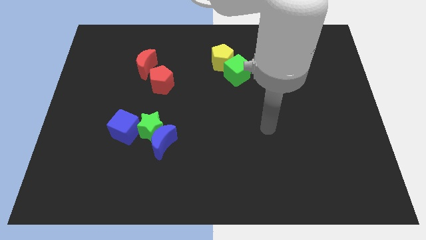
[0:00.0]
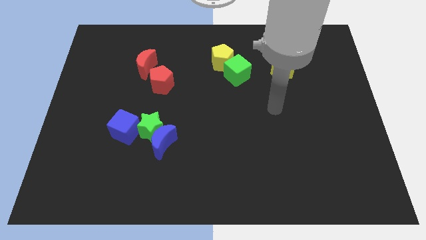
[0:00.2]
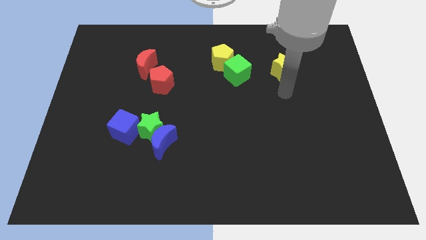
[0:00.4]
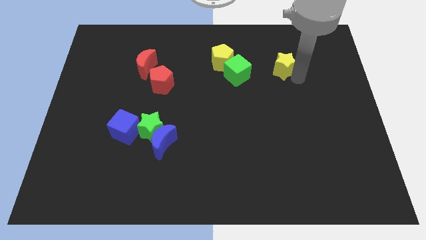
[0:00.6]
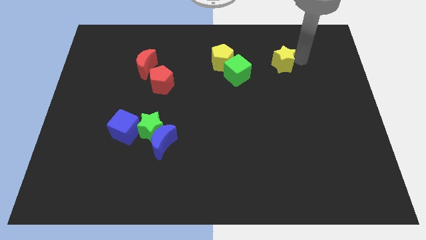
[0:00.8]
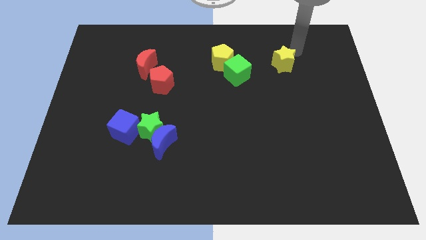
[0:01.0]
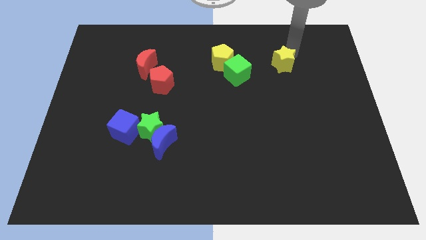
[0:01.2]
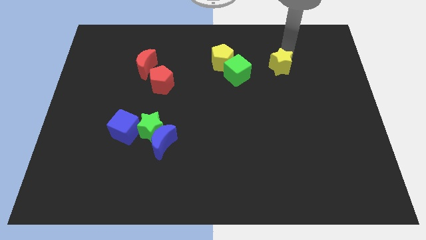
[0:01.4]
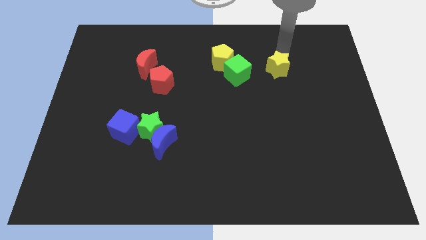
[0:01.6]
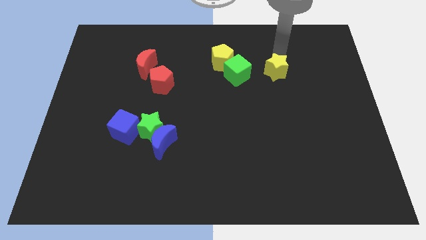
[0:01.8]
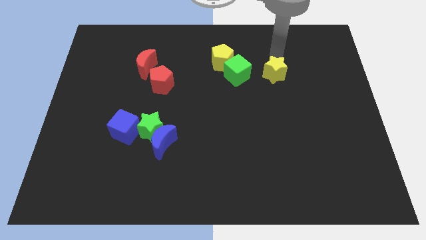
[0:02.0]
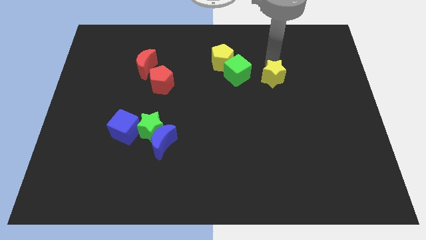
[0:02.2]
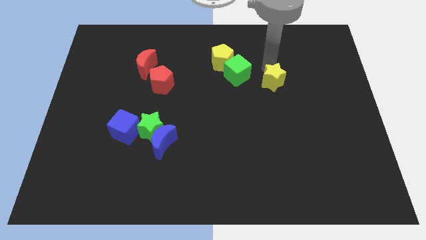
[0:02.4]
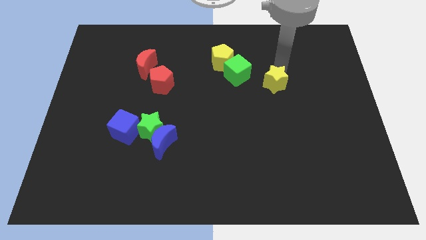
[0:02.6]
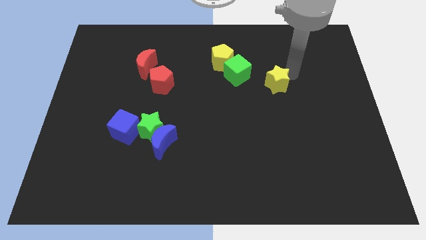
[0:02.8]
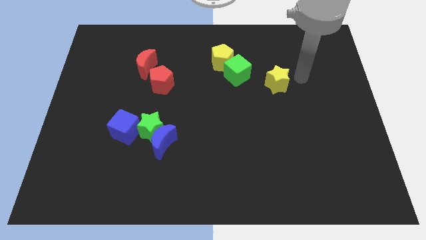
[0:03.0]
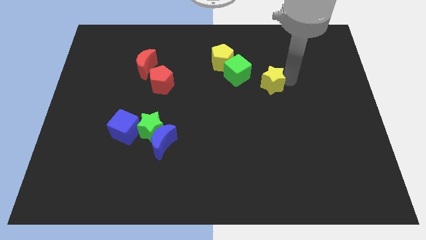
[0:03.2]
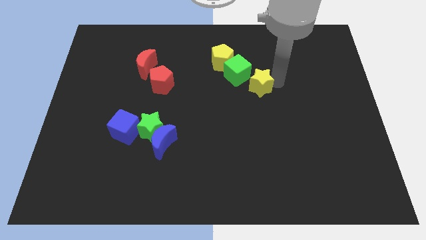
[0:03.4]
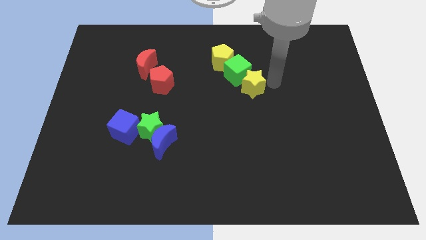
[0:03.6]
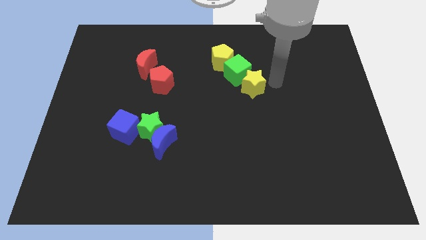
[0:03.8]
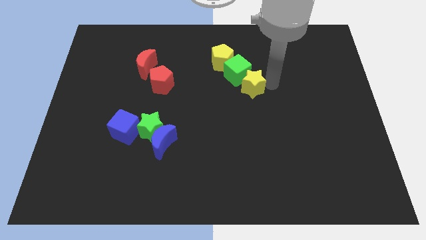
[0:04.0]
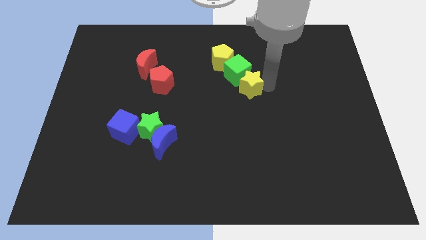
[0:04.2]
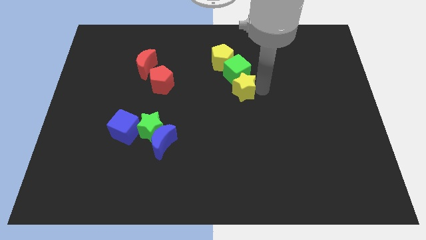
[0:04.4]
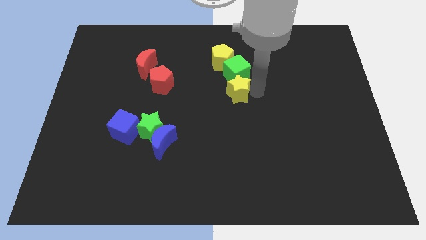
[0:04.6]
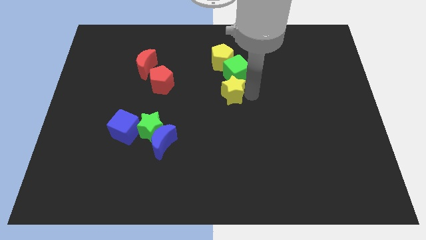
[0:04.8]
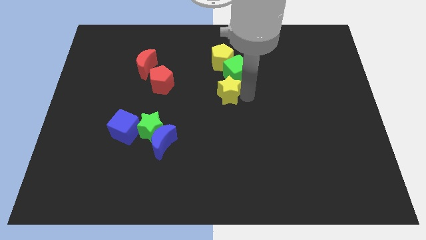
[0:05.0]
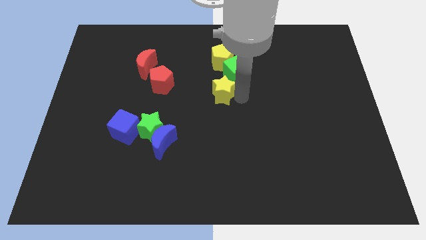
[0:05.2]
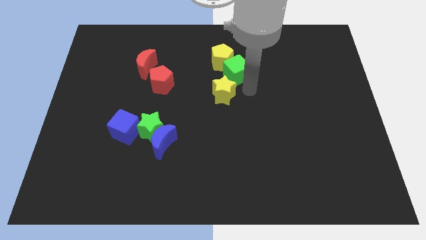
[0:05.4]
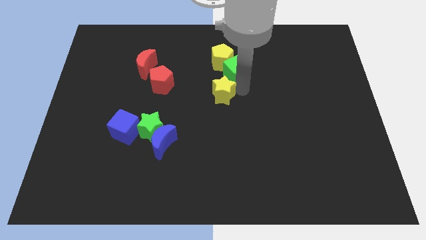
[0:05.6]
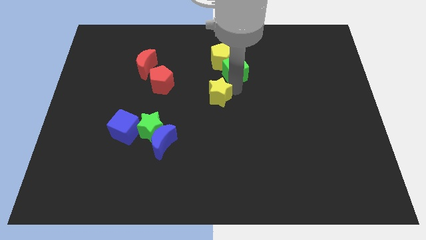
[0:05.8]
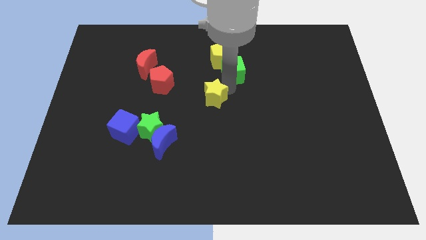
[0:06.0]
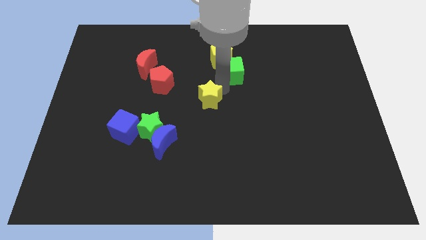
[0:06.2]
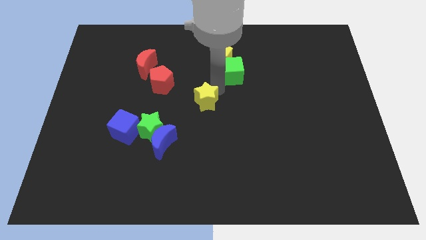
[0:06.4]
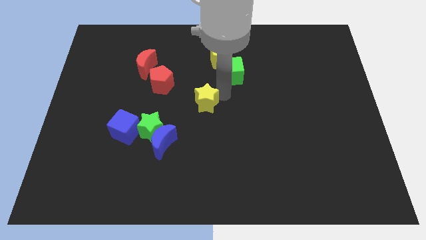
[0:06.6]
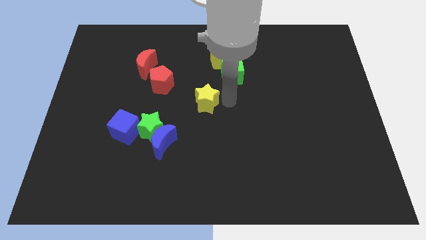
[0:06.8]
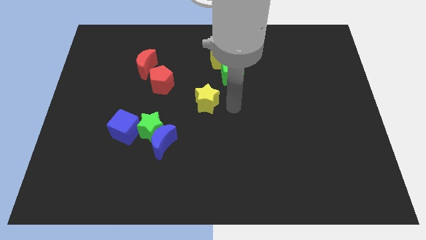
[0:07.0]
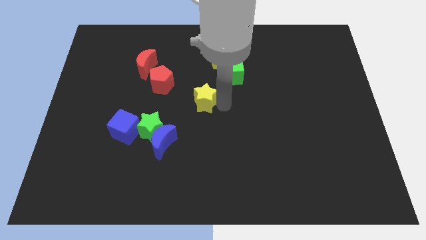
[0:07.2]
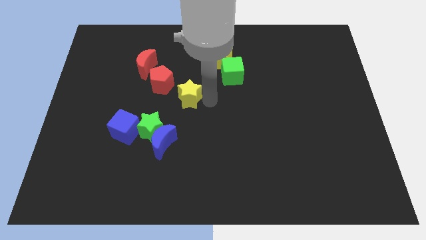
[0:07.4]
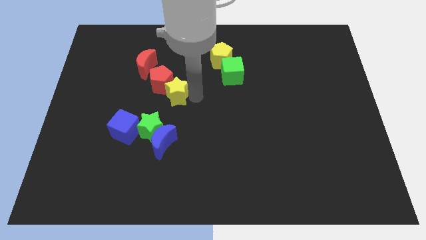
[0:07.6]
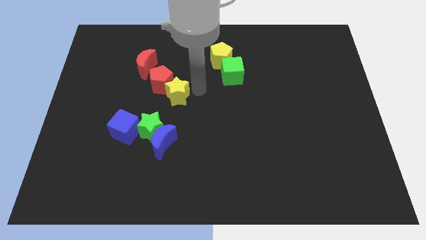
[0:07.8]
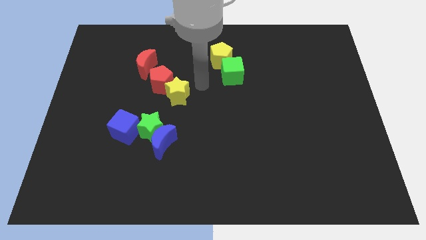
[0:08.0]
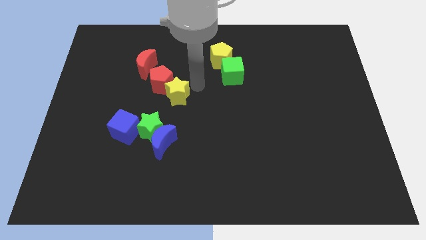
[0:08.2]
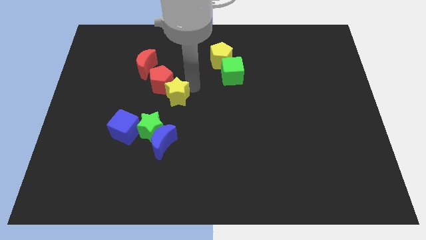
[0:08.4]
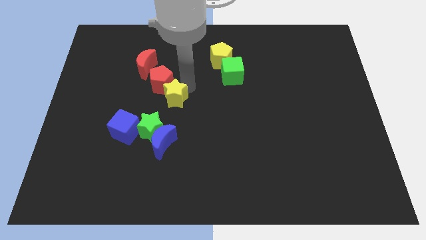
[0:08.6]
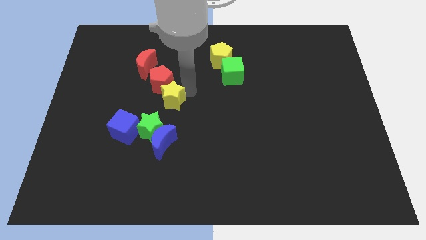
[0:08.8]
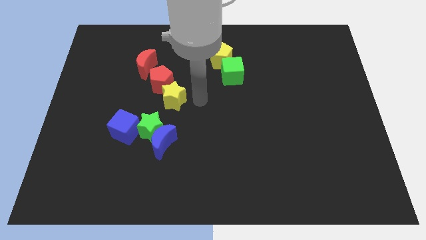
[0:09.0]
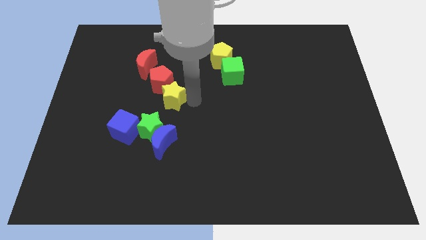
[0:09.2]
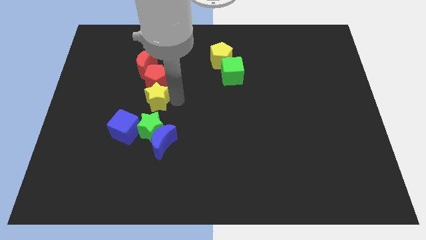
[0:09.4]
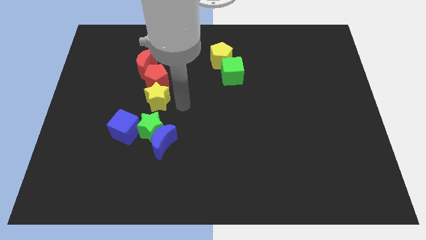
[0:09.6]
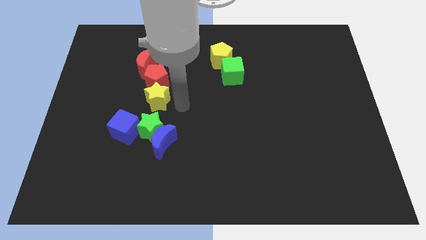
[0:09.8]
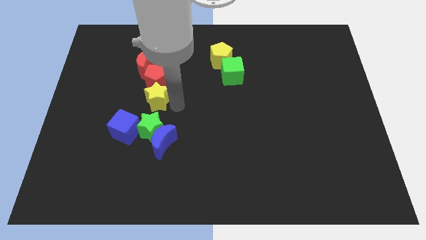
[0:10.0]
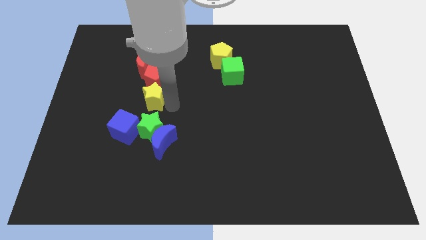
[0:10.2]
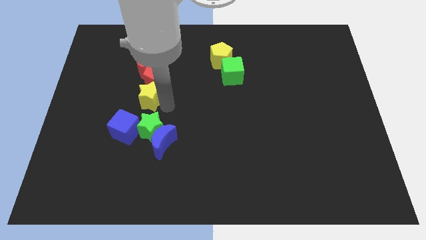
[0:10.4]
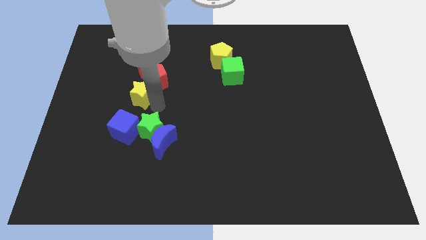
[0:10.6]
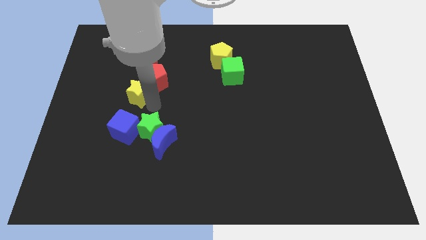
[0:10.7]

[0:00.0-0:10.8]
slide the yellow star left of the red pentagon
